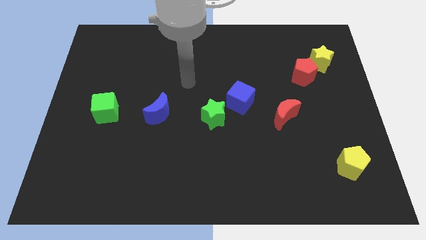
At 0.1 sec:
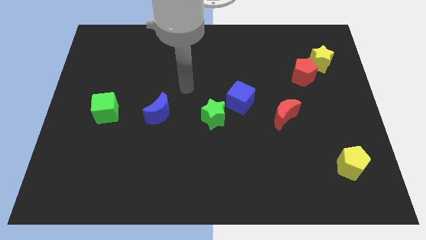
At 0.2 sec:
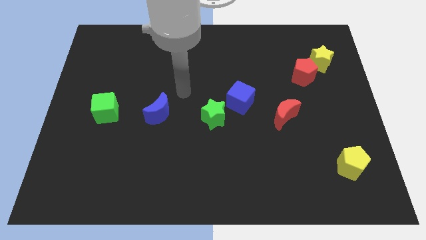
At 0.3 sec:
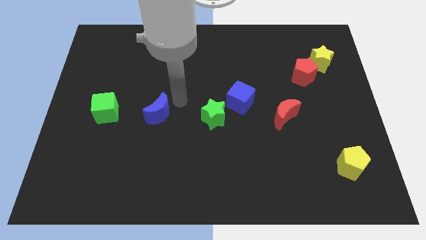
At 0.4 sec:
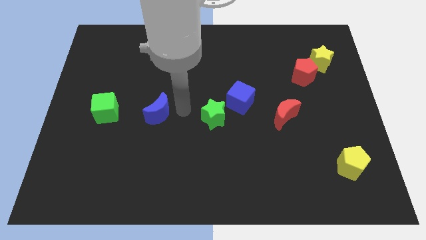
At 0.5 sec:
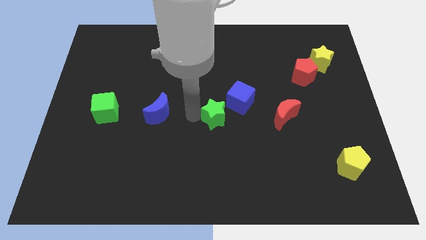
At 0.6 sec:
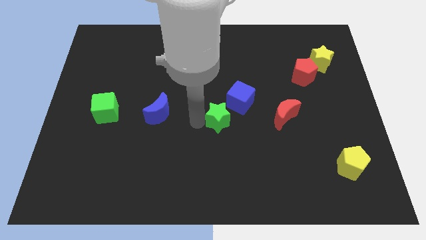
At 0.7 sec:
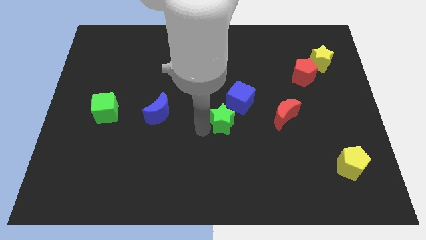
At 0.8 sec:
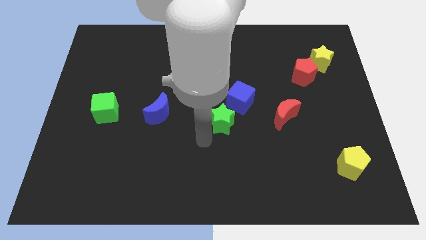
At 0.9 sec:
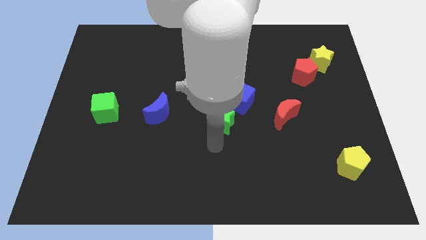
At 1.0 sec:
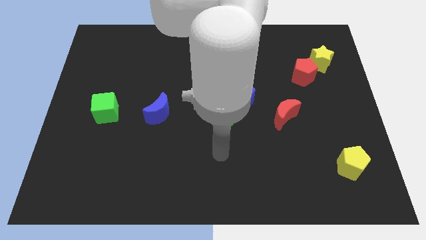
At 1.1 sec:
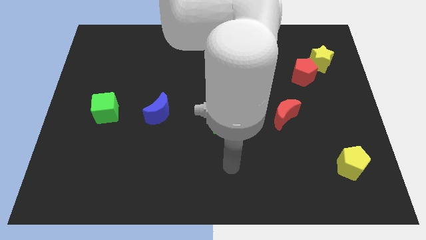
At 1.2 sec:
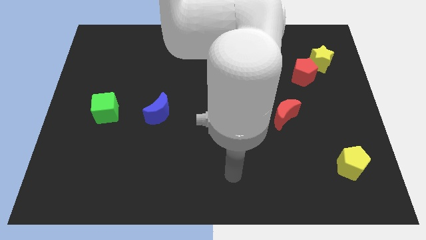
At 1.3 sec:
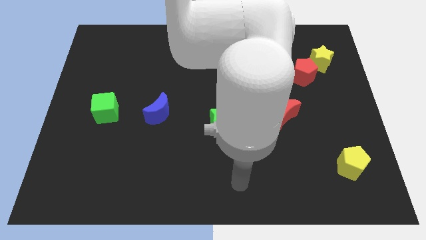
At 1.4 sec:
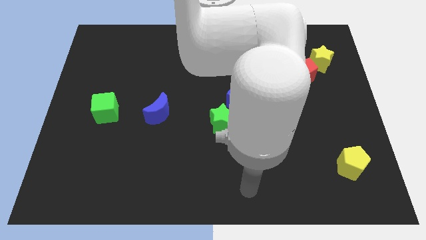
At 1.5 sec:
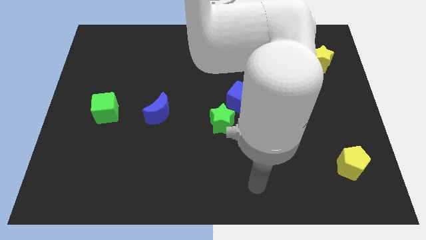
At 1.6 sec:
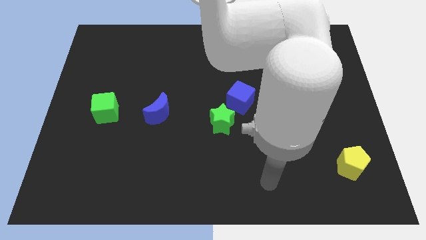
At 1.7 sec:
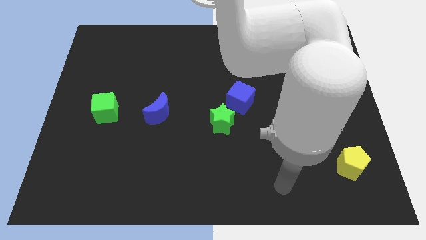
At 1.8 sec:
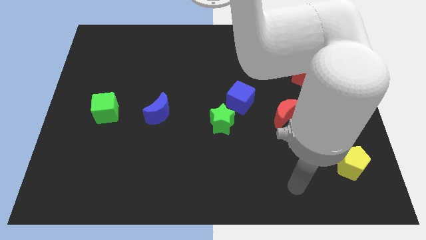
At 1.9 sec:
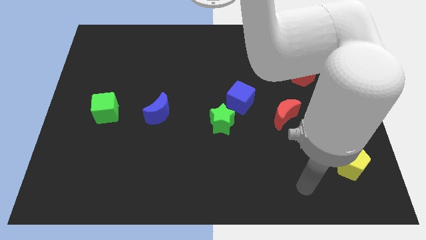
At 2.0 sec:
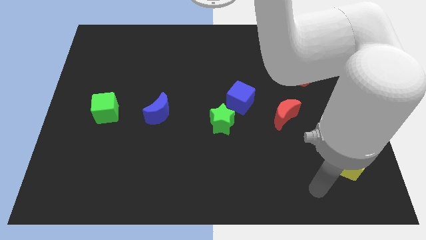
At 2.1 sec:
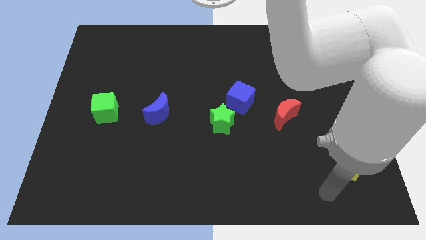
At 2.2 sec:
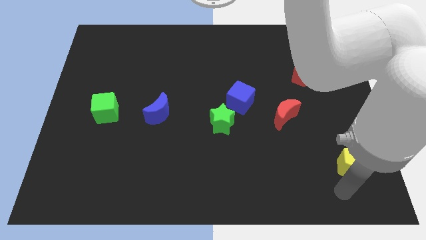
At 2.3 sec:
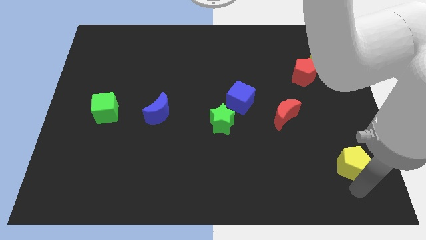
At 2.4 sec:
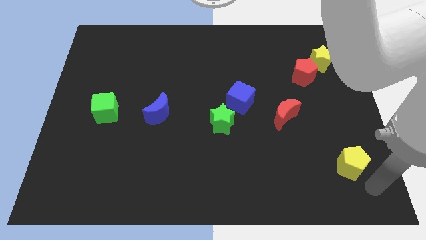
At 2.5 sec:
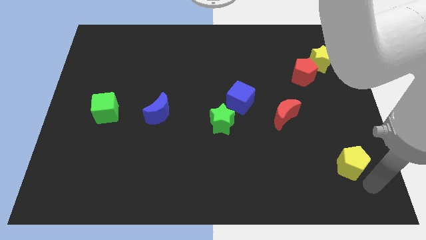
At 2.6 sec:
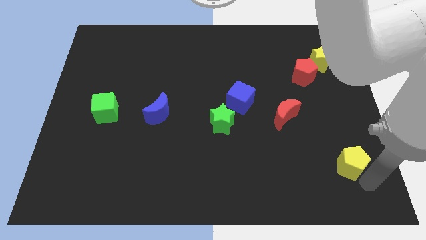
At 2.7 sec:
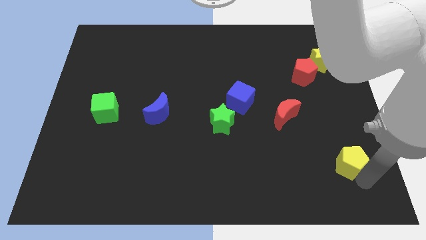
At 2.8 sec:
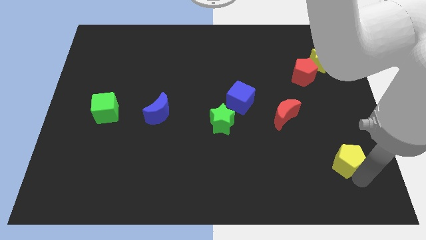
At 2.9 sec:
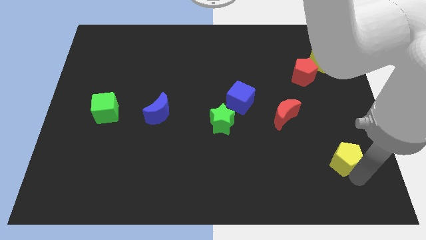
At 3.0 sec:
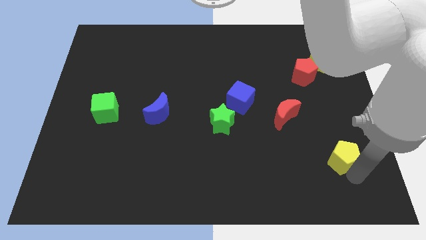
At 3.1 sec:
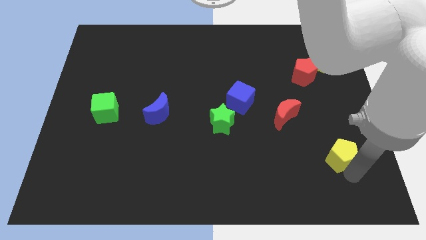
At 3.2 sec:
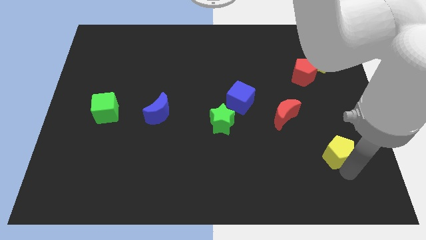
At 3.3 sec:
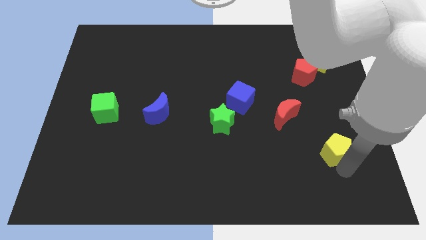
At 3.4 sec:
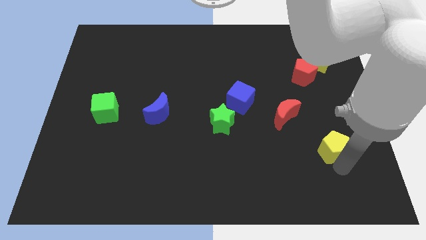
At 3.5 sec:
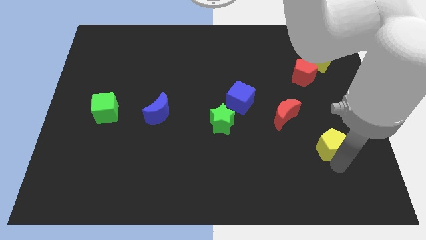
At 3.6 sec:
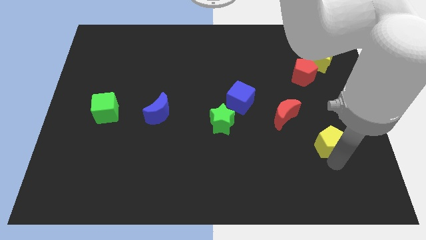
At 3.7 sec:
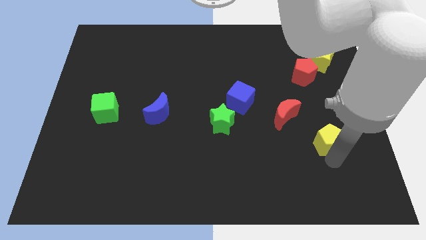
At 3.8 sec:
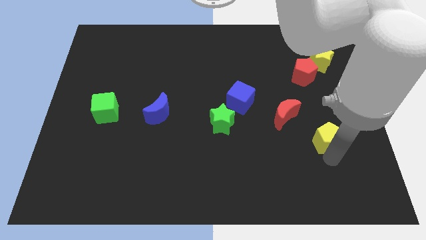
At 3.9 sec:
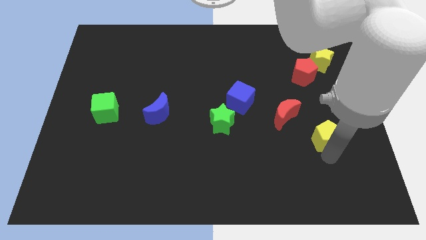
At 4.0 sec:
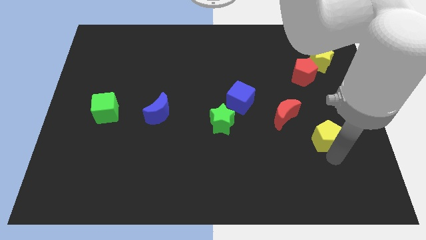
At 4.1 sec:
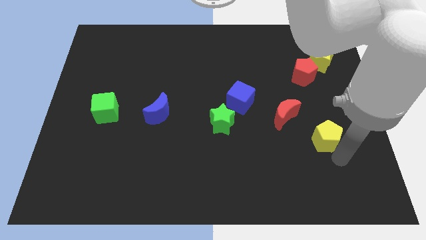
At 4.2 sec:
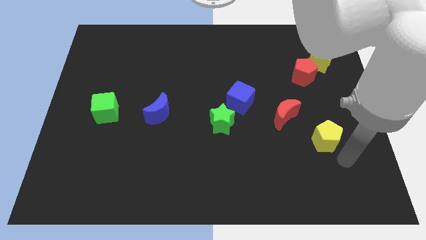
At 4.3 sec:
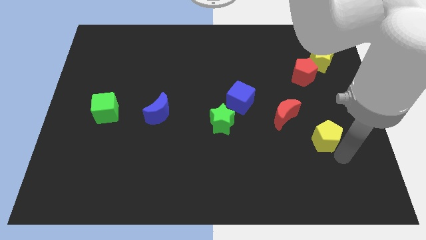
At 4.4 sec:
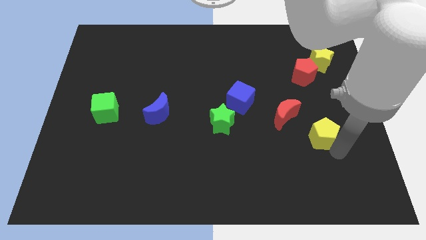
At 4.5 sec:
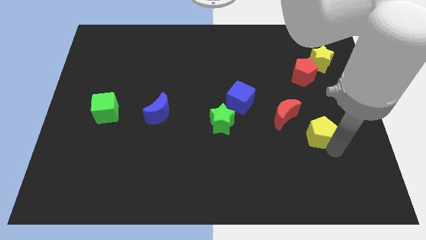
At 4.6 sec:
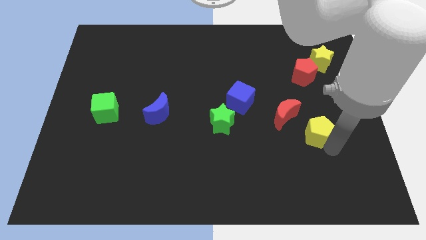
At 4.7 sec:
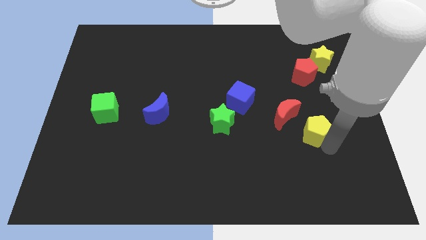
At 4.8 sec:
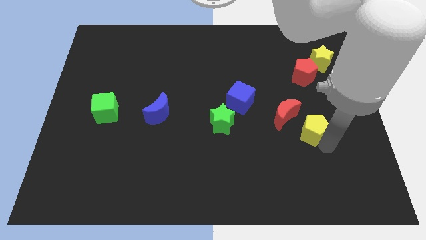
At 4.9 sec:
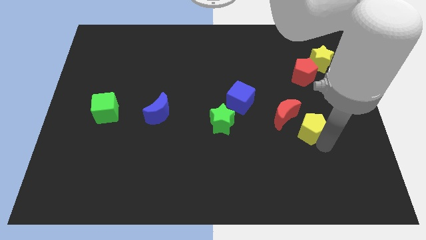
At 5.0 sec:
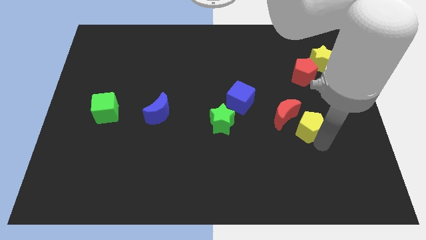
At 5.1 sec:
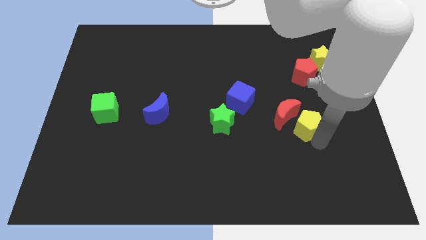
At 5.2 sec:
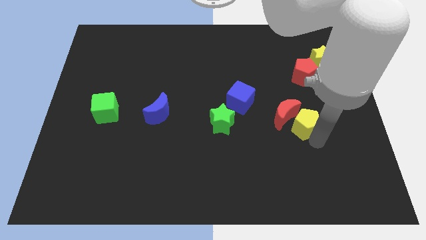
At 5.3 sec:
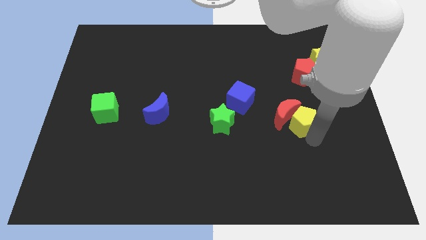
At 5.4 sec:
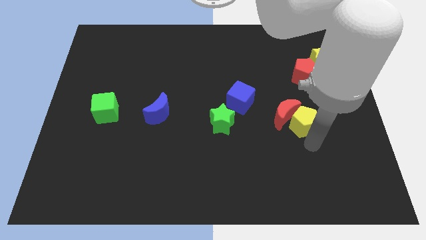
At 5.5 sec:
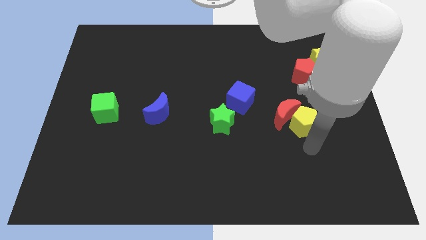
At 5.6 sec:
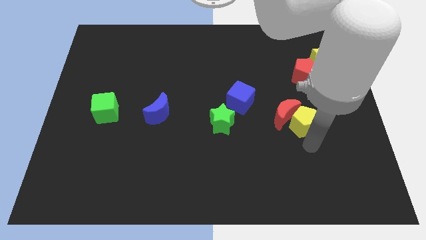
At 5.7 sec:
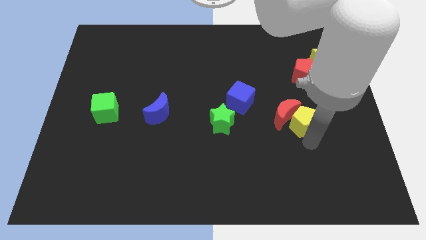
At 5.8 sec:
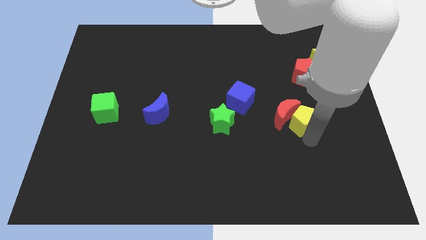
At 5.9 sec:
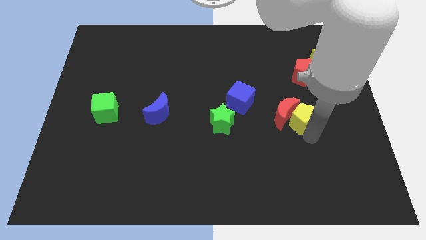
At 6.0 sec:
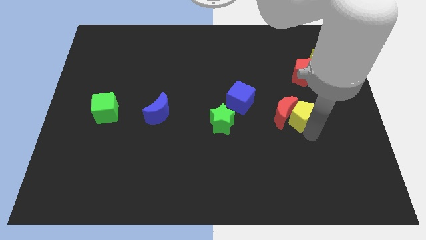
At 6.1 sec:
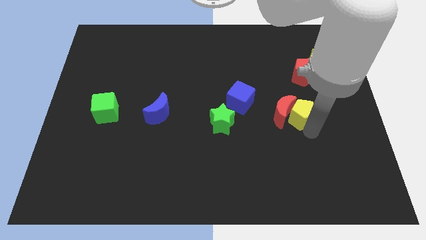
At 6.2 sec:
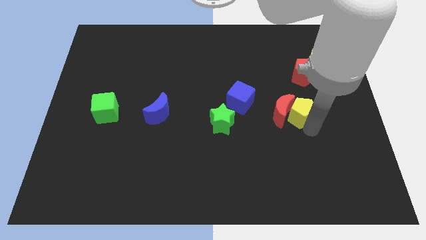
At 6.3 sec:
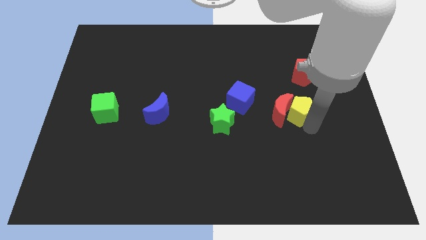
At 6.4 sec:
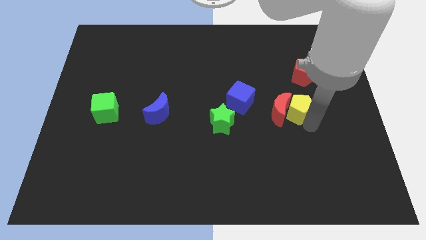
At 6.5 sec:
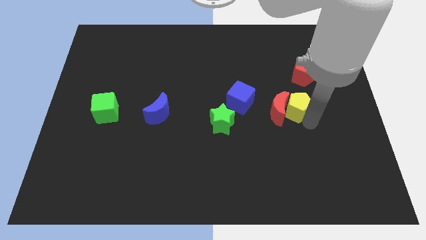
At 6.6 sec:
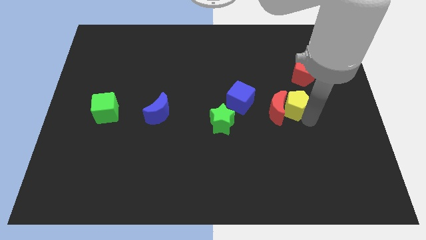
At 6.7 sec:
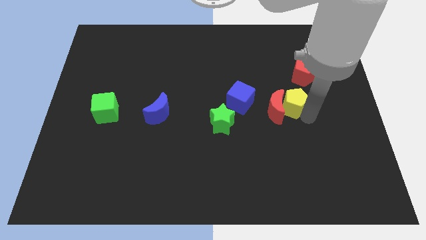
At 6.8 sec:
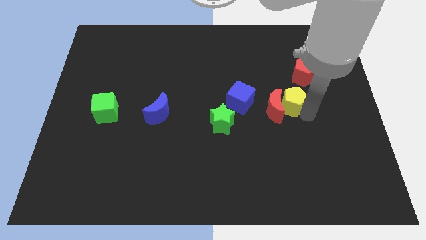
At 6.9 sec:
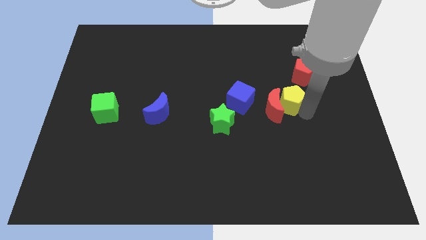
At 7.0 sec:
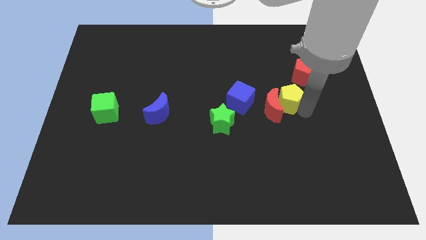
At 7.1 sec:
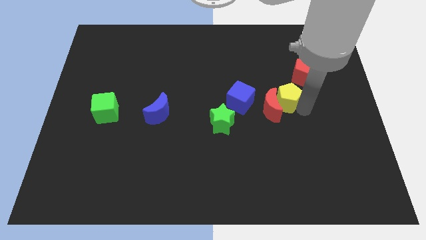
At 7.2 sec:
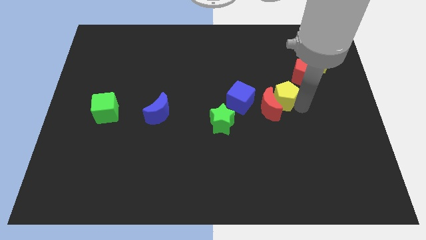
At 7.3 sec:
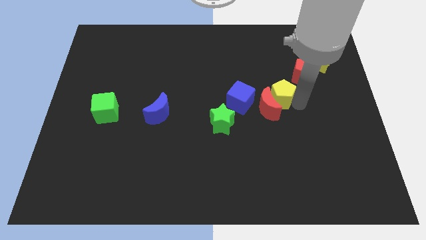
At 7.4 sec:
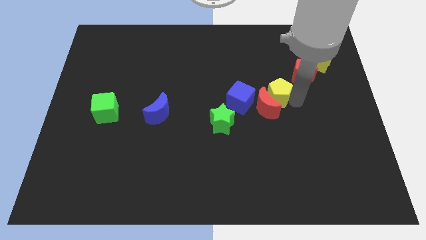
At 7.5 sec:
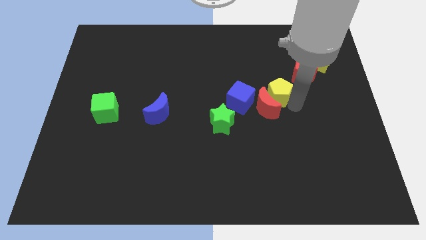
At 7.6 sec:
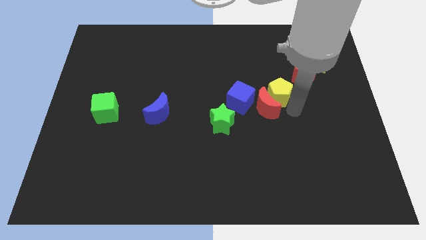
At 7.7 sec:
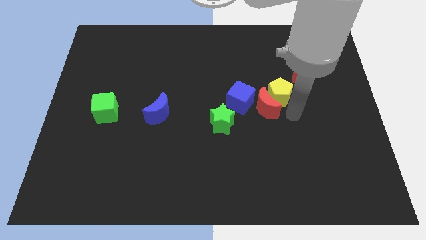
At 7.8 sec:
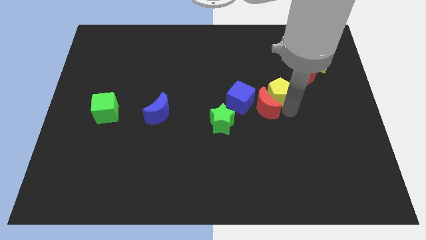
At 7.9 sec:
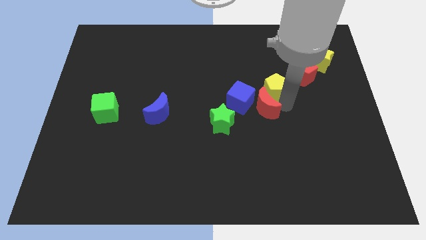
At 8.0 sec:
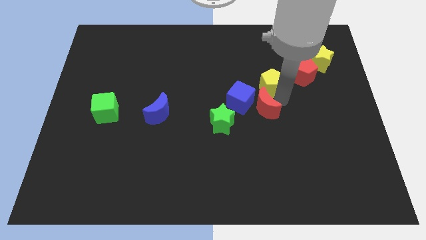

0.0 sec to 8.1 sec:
put the yellow pentagon to the left side of the red pentagon
